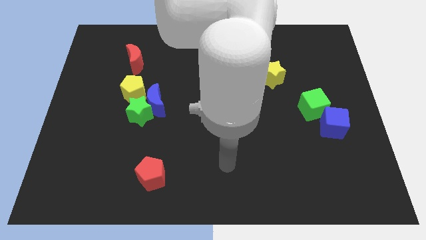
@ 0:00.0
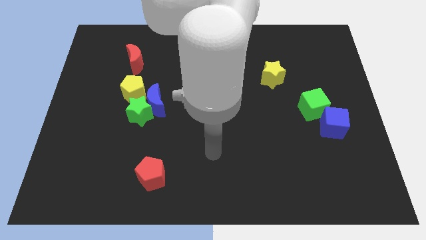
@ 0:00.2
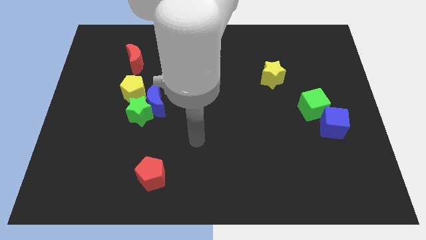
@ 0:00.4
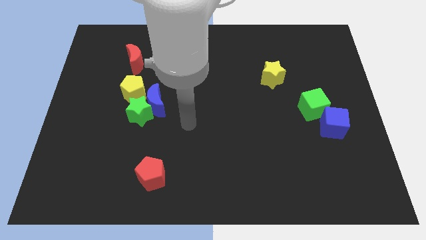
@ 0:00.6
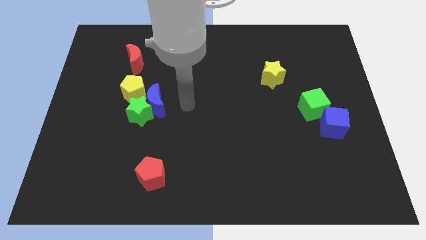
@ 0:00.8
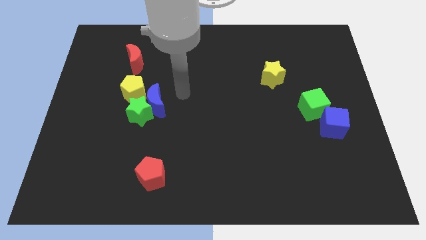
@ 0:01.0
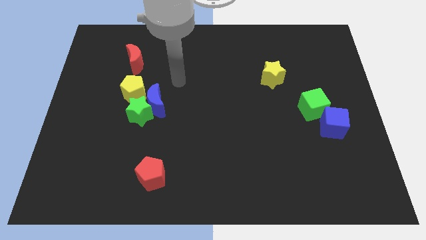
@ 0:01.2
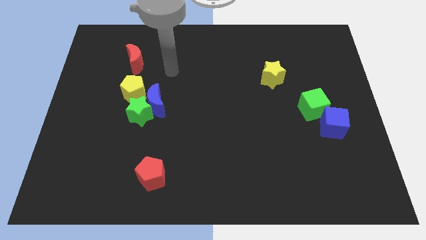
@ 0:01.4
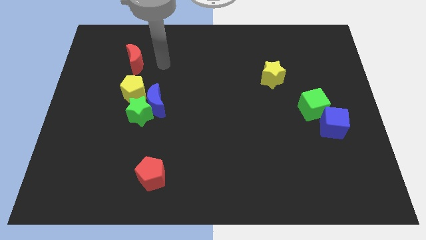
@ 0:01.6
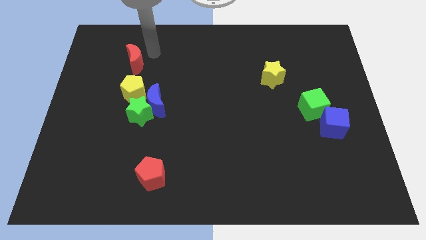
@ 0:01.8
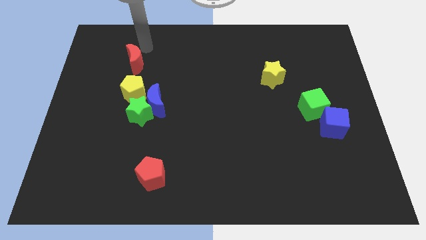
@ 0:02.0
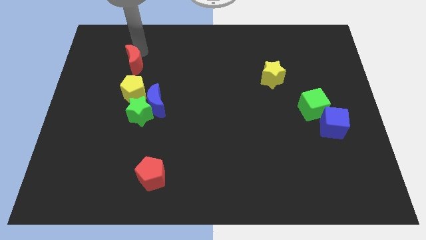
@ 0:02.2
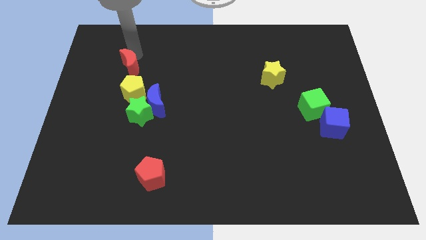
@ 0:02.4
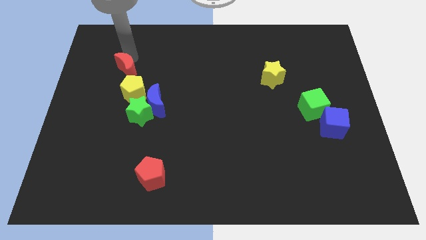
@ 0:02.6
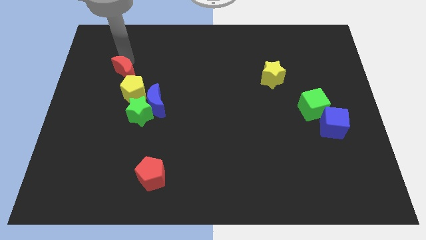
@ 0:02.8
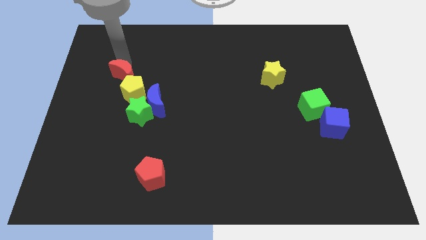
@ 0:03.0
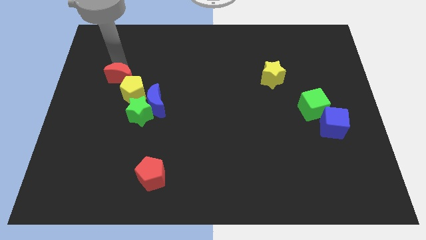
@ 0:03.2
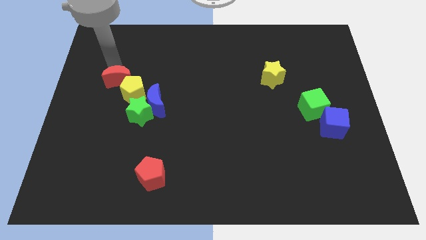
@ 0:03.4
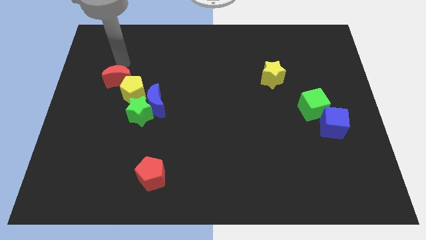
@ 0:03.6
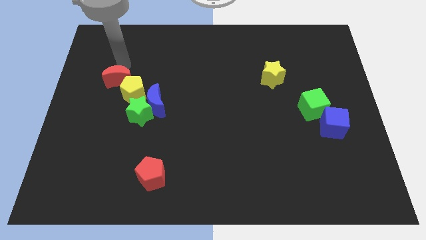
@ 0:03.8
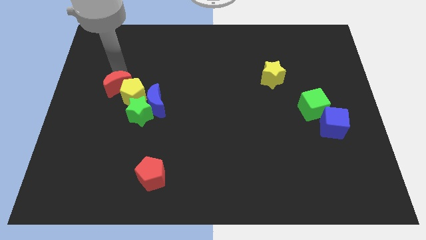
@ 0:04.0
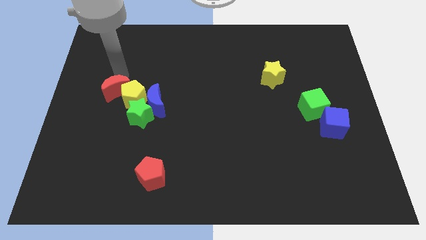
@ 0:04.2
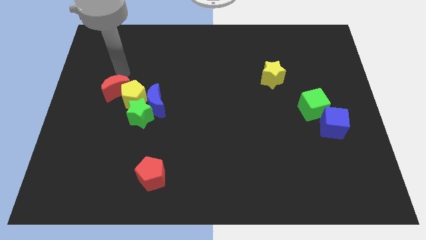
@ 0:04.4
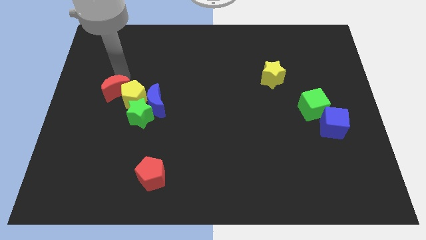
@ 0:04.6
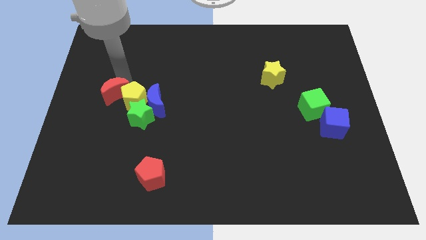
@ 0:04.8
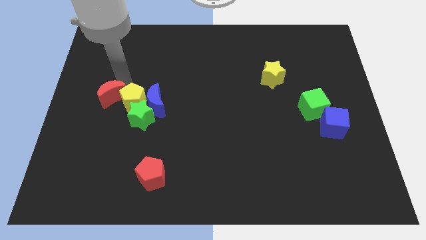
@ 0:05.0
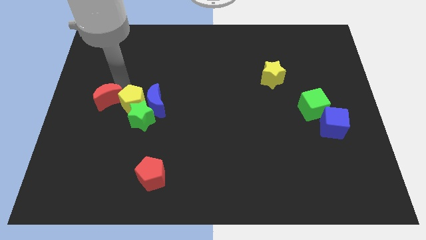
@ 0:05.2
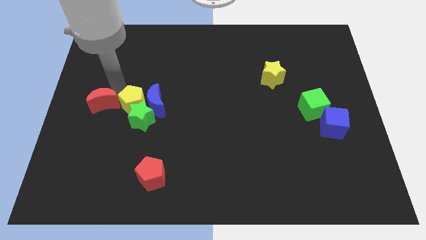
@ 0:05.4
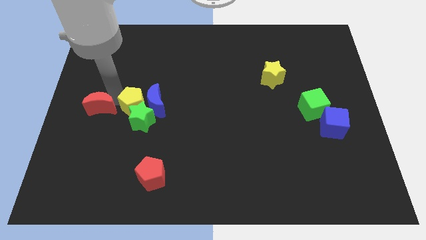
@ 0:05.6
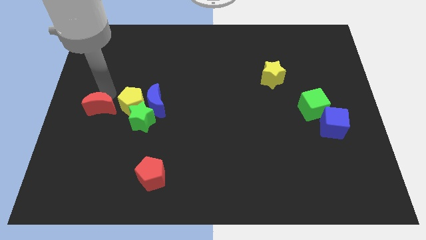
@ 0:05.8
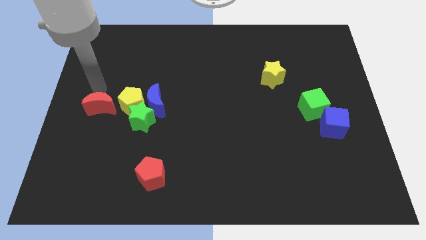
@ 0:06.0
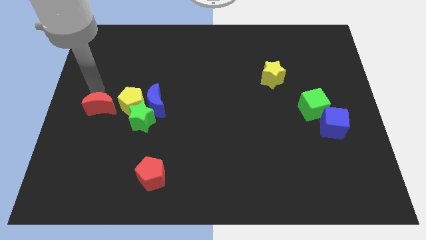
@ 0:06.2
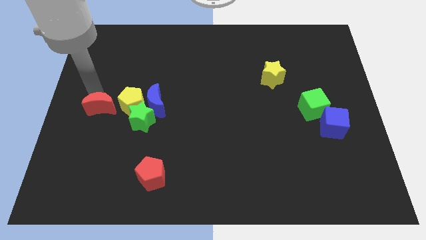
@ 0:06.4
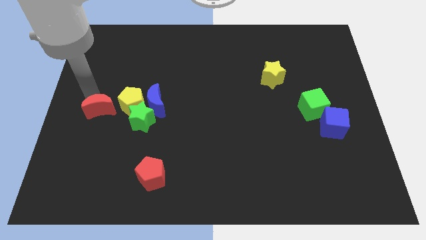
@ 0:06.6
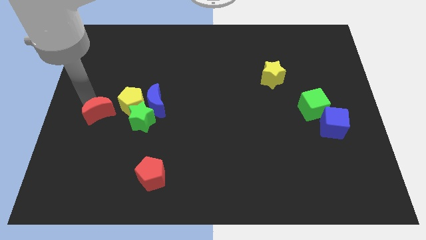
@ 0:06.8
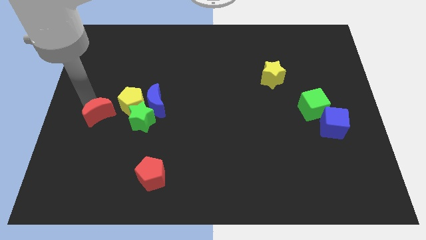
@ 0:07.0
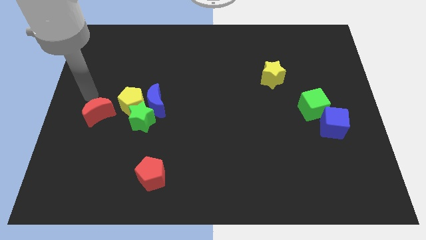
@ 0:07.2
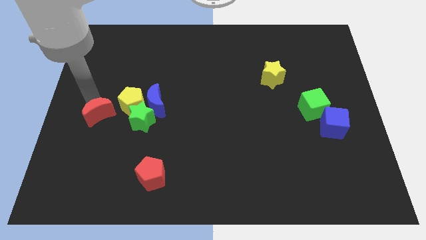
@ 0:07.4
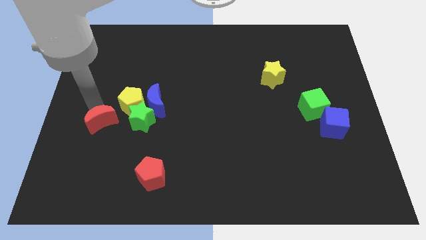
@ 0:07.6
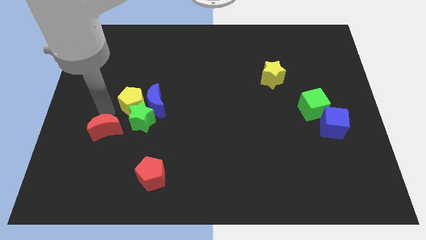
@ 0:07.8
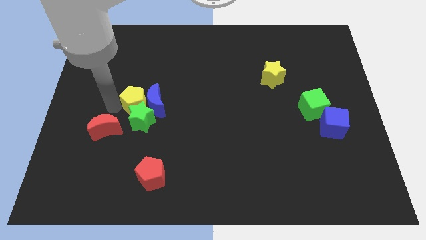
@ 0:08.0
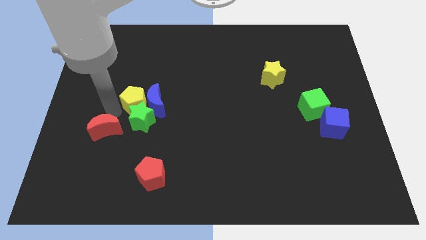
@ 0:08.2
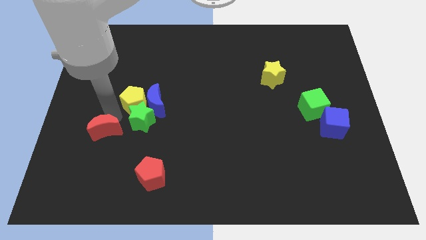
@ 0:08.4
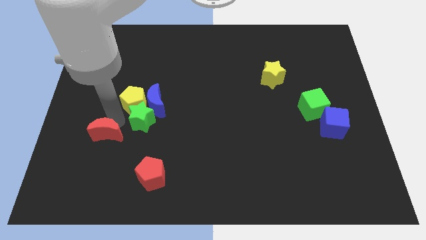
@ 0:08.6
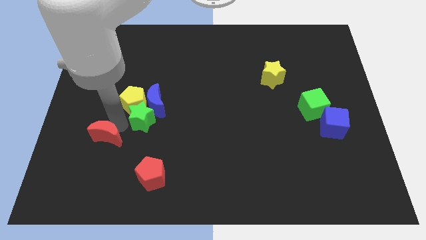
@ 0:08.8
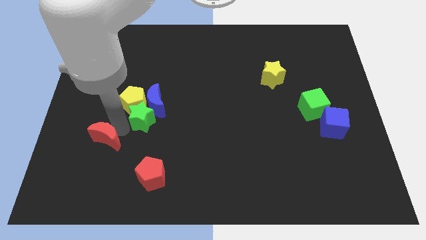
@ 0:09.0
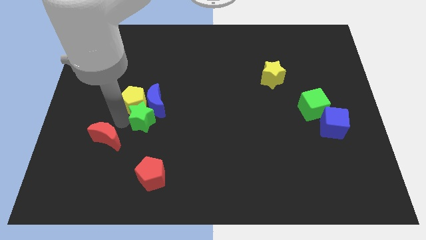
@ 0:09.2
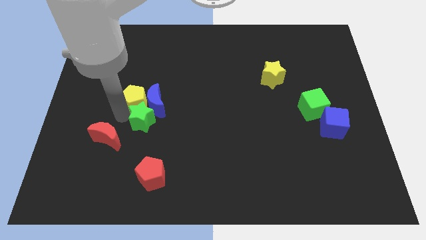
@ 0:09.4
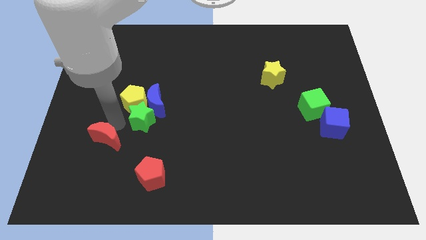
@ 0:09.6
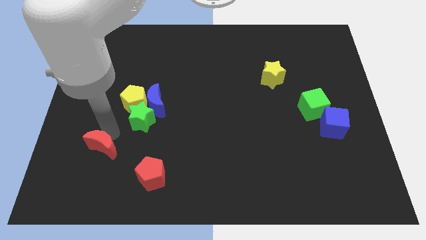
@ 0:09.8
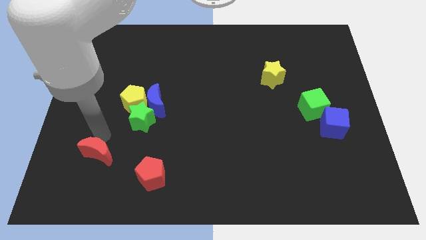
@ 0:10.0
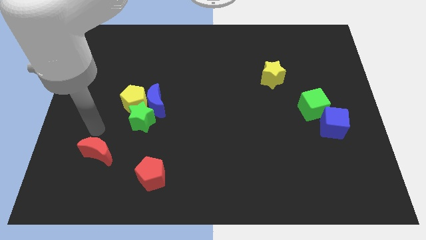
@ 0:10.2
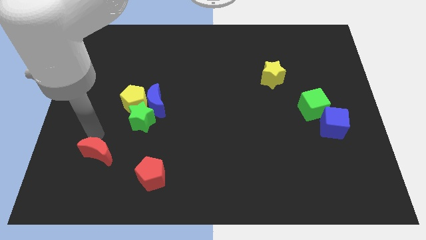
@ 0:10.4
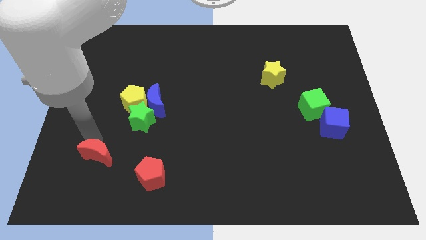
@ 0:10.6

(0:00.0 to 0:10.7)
slide the red moon to the left side of the red pentagon

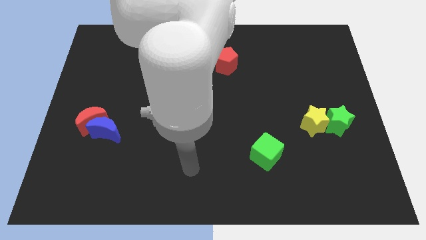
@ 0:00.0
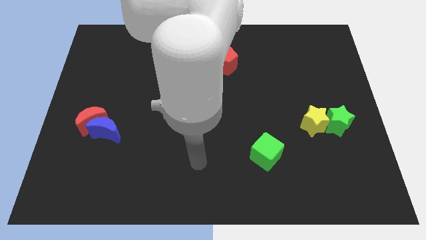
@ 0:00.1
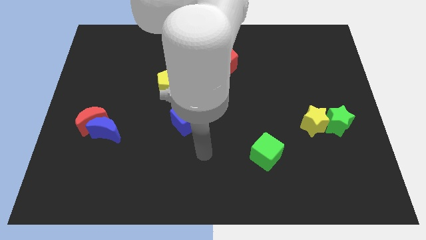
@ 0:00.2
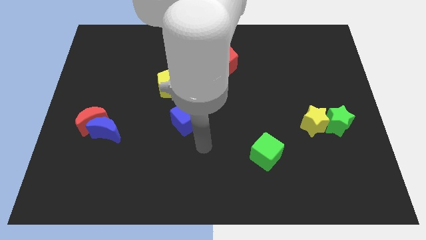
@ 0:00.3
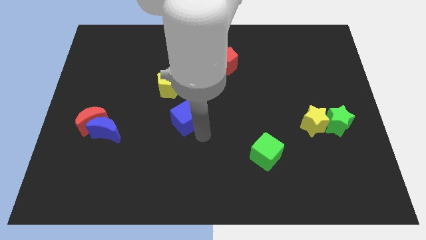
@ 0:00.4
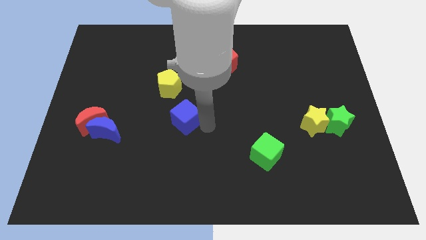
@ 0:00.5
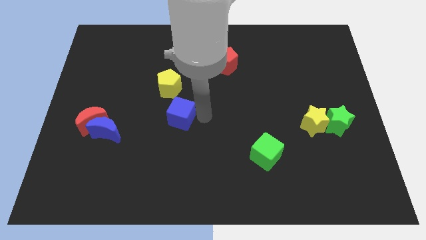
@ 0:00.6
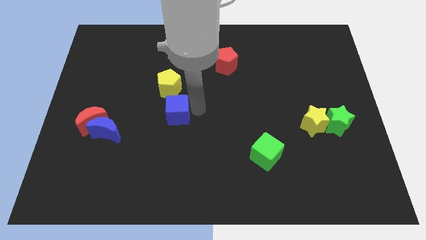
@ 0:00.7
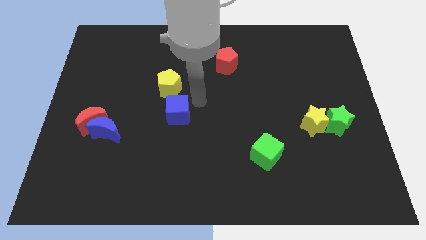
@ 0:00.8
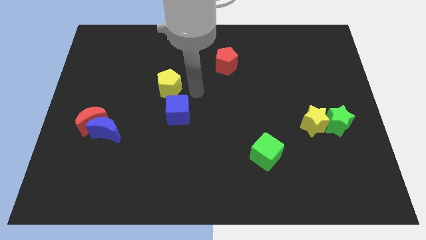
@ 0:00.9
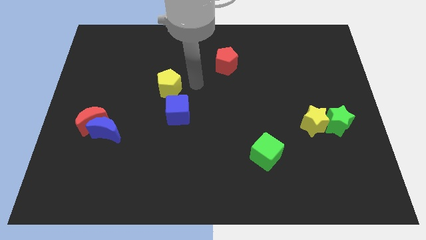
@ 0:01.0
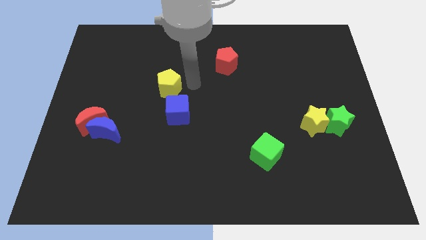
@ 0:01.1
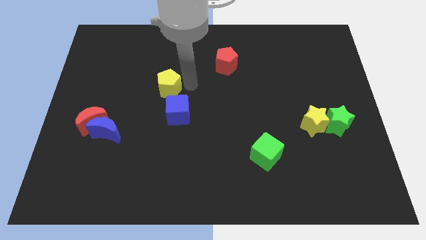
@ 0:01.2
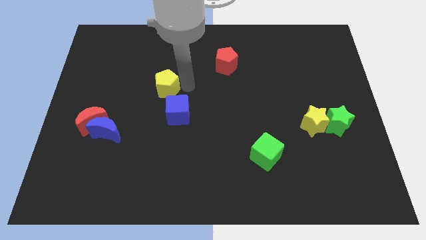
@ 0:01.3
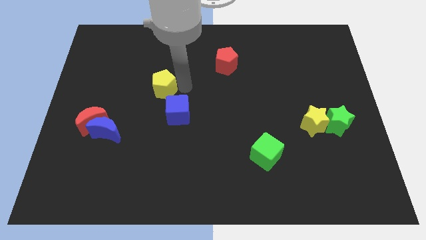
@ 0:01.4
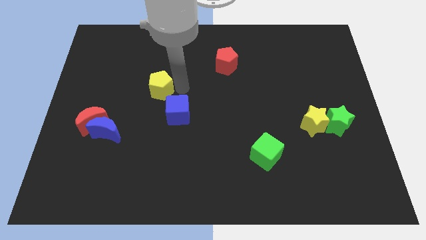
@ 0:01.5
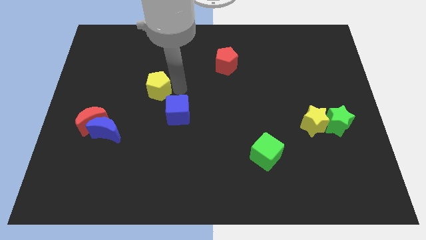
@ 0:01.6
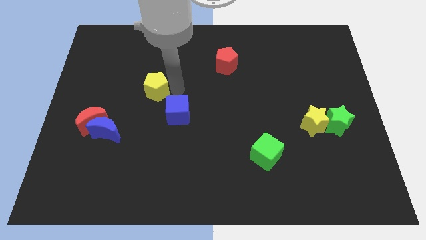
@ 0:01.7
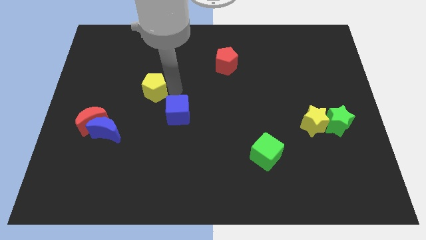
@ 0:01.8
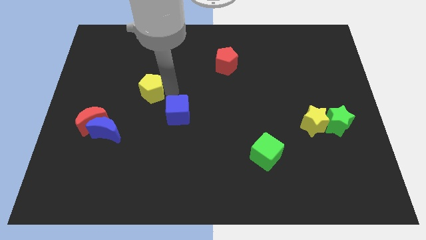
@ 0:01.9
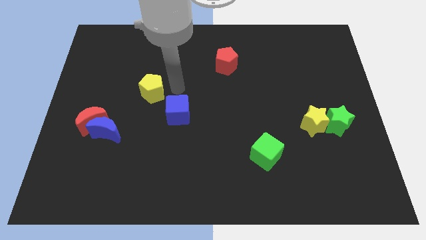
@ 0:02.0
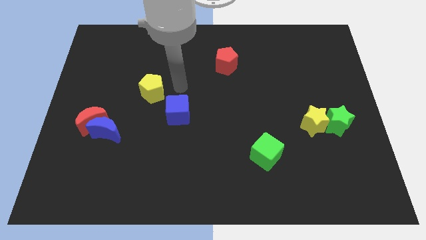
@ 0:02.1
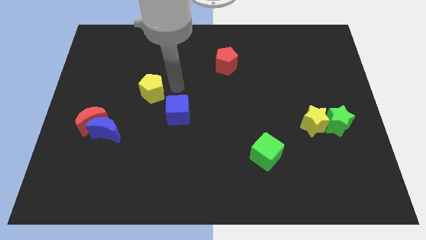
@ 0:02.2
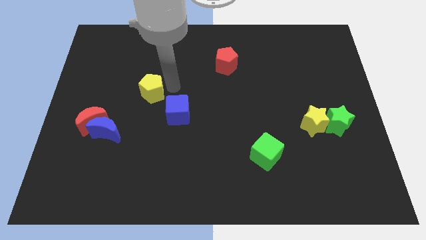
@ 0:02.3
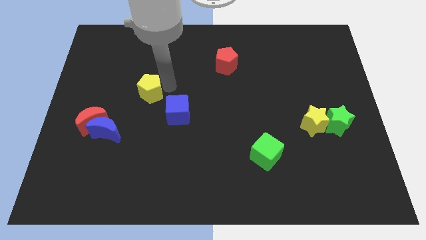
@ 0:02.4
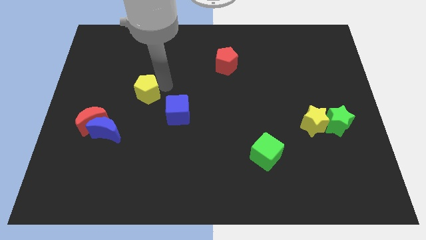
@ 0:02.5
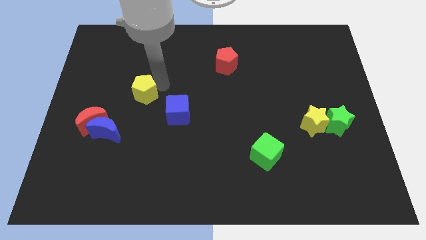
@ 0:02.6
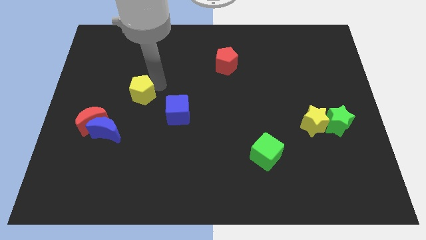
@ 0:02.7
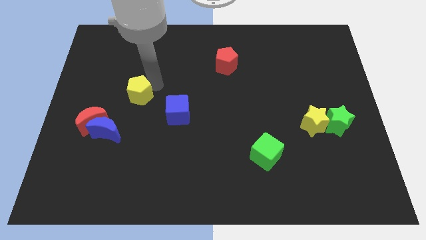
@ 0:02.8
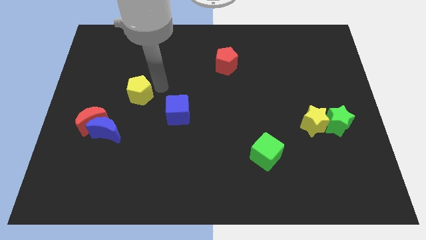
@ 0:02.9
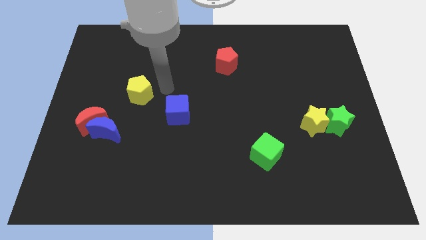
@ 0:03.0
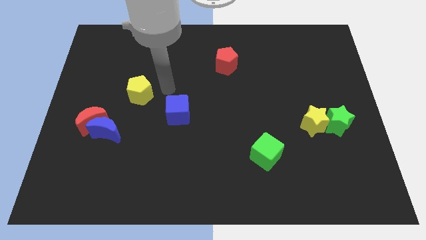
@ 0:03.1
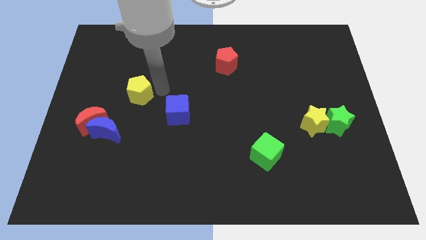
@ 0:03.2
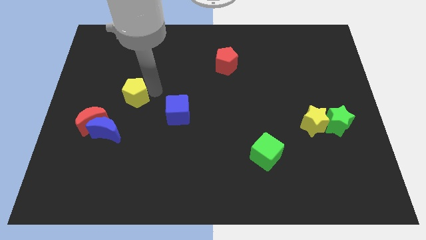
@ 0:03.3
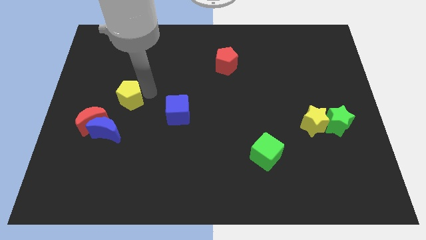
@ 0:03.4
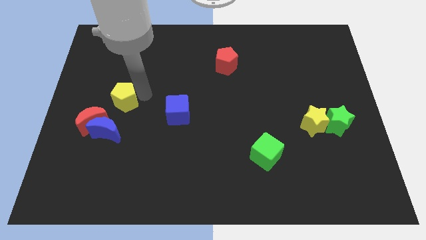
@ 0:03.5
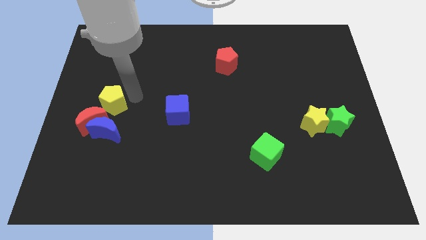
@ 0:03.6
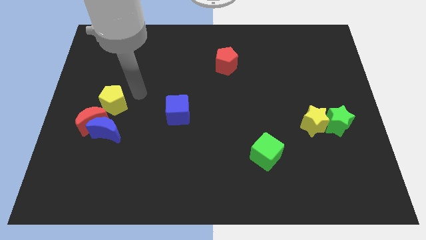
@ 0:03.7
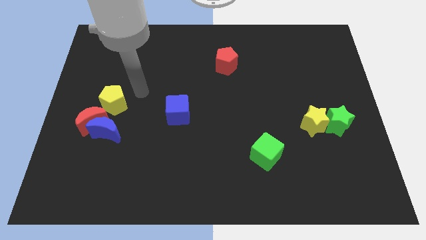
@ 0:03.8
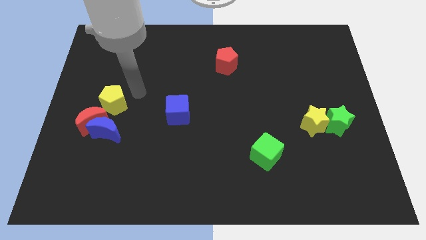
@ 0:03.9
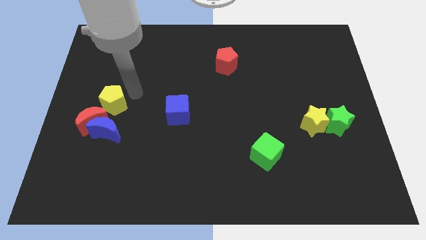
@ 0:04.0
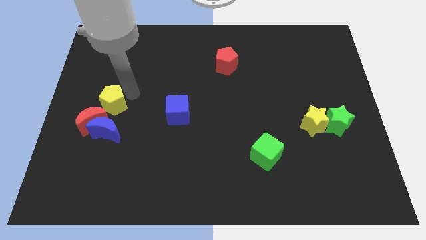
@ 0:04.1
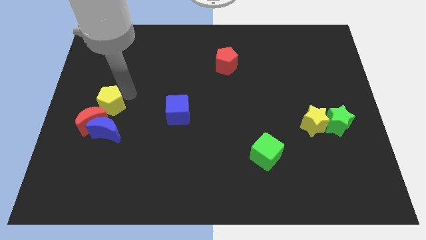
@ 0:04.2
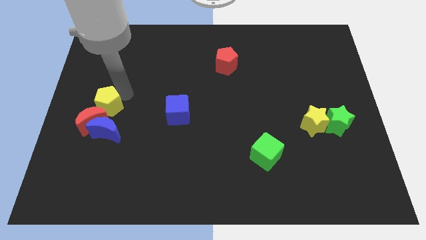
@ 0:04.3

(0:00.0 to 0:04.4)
move the yellow pentagon to the top left side of the blue moon